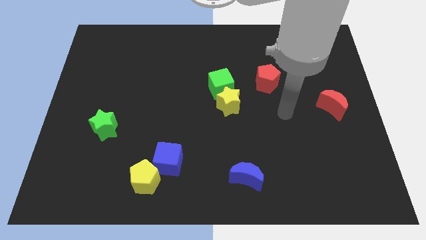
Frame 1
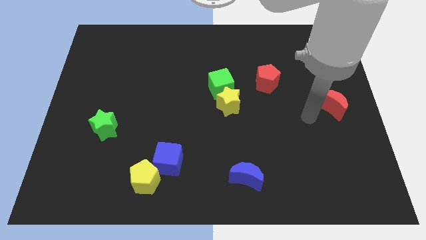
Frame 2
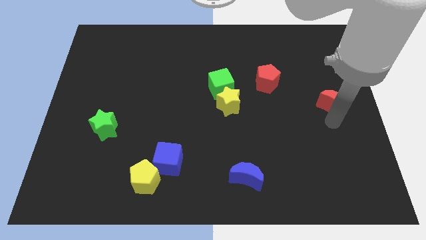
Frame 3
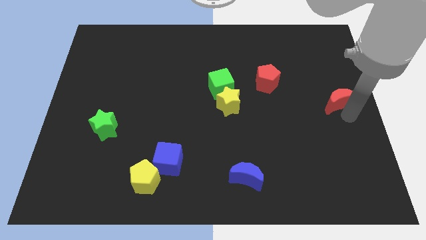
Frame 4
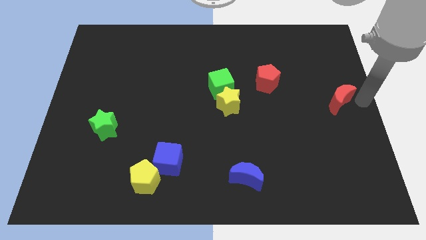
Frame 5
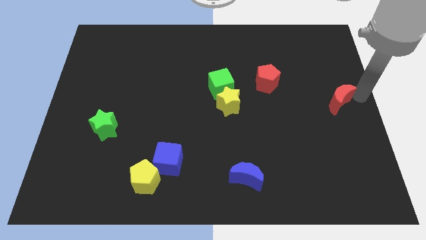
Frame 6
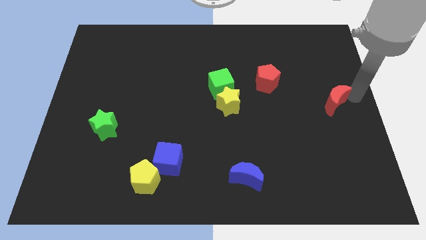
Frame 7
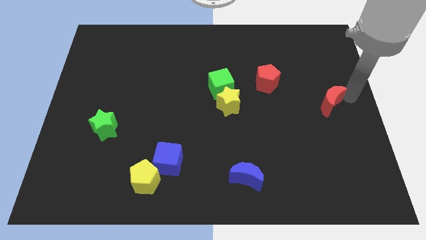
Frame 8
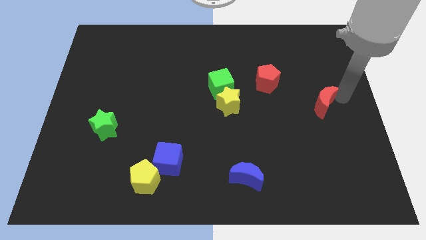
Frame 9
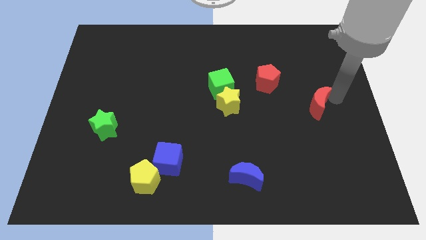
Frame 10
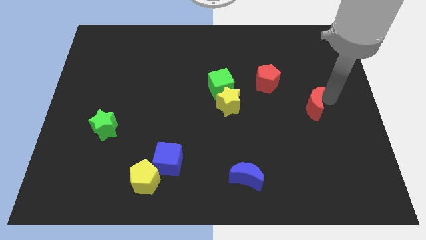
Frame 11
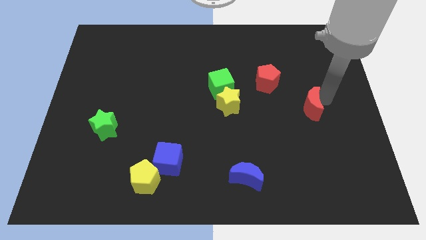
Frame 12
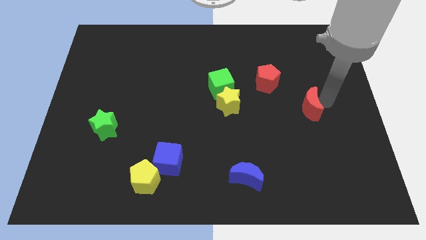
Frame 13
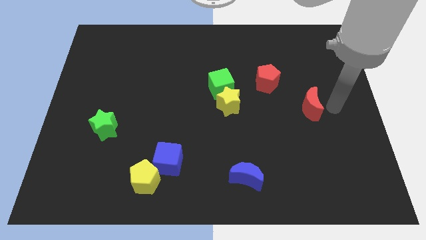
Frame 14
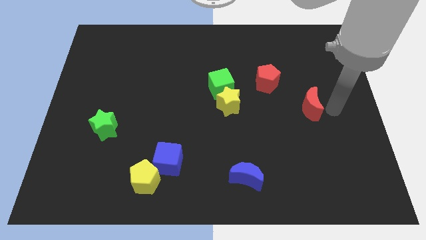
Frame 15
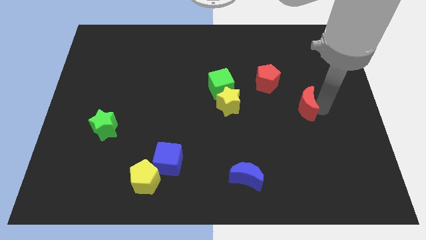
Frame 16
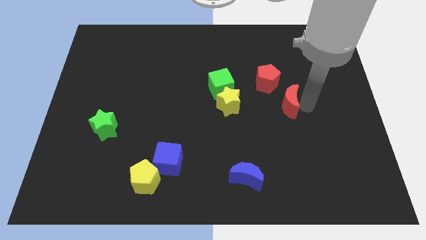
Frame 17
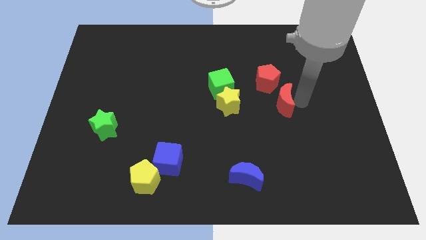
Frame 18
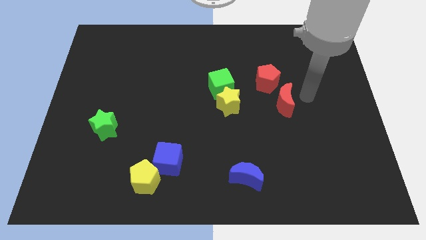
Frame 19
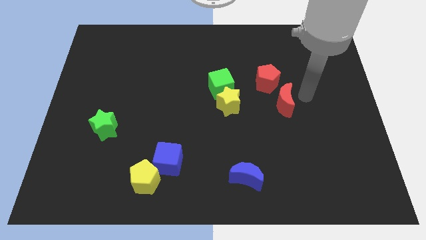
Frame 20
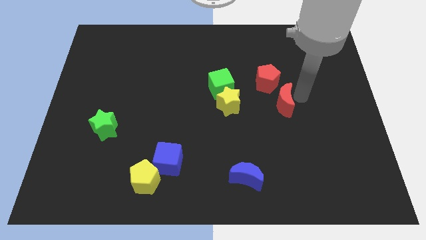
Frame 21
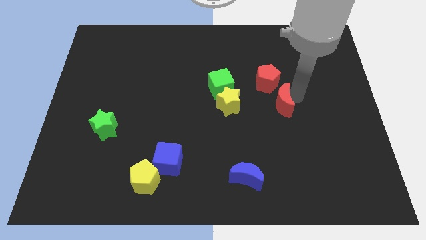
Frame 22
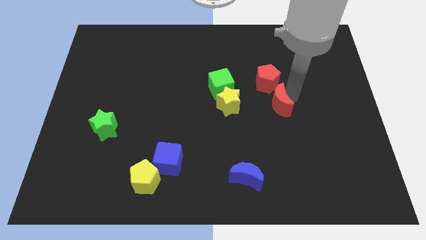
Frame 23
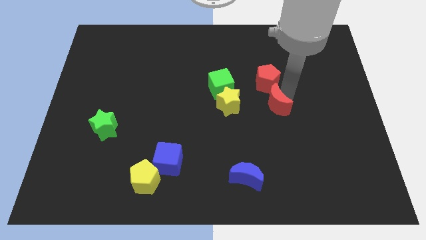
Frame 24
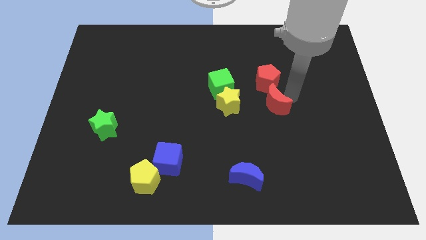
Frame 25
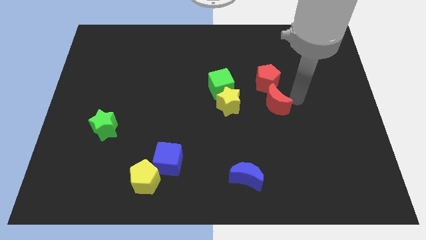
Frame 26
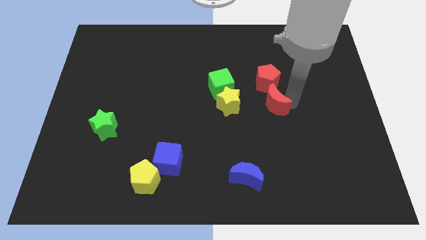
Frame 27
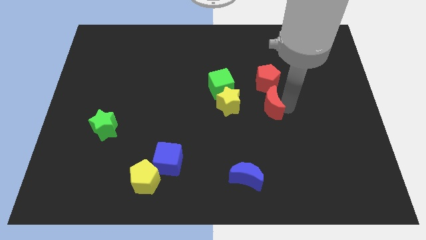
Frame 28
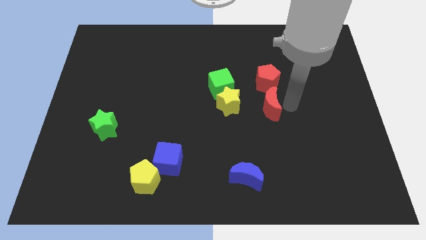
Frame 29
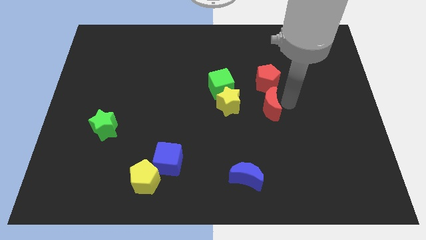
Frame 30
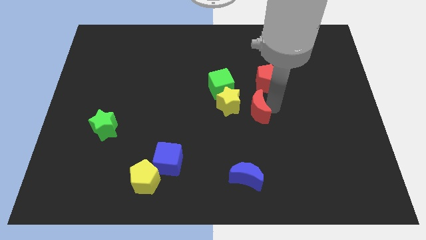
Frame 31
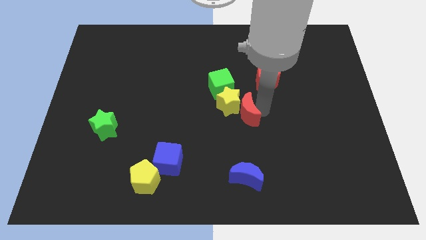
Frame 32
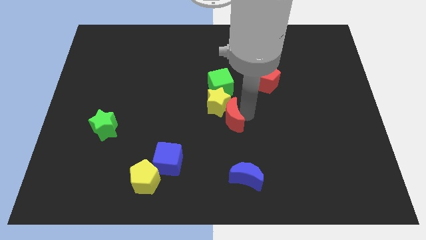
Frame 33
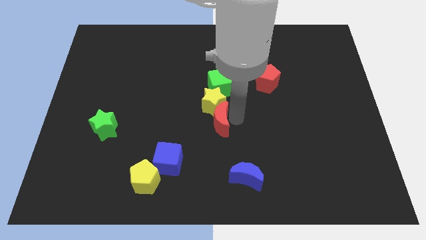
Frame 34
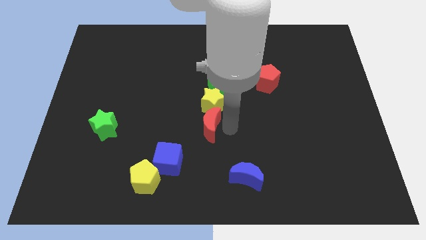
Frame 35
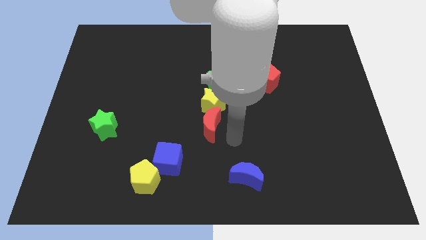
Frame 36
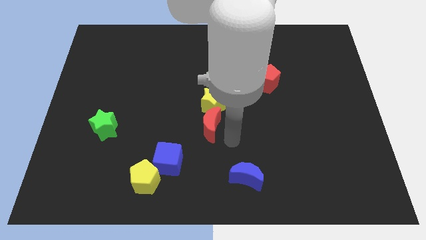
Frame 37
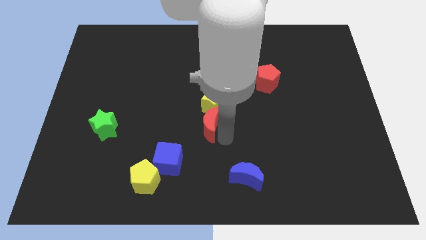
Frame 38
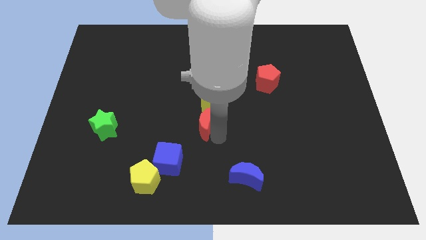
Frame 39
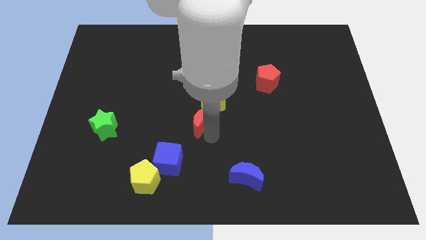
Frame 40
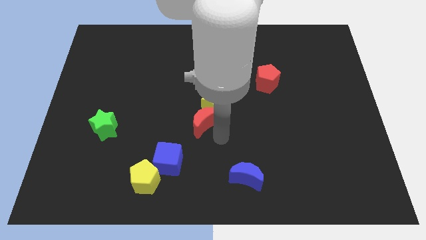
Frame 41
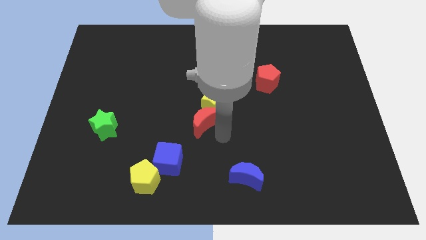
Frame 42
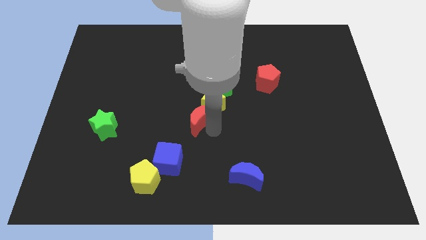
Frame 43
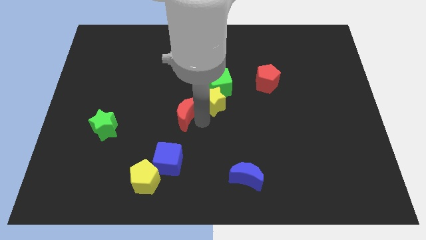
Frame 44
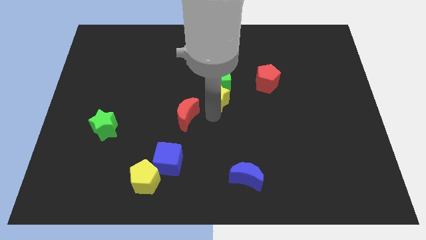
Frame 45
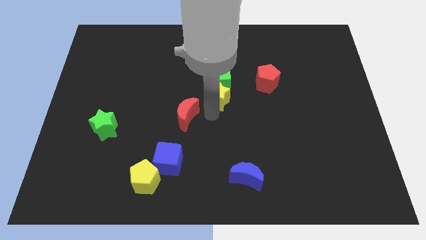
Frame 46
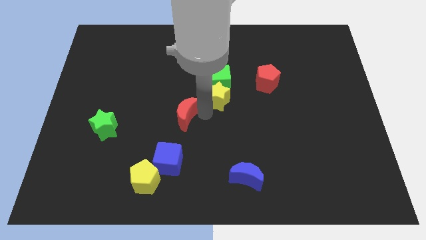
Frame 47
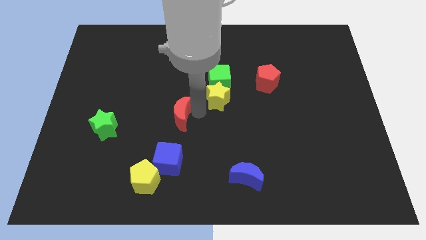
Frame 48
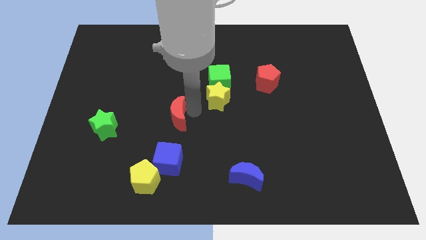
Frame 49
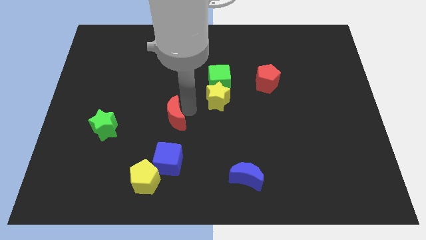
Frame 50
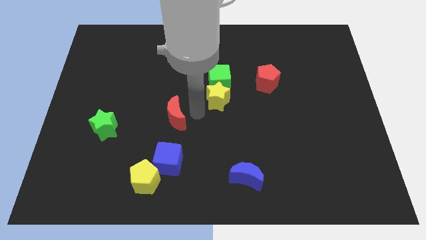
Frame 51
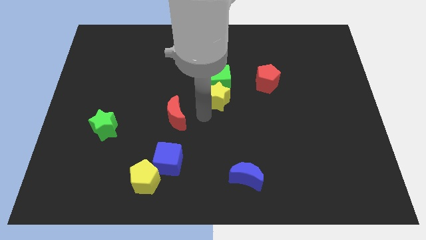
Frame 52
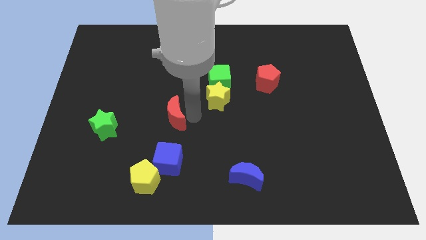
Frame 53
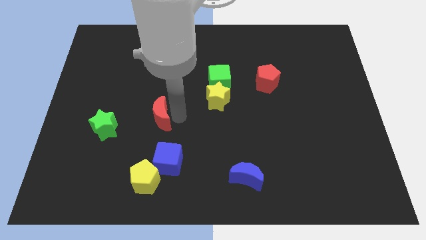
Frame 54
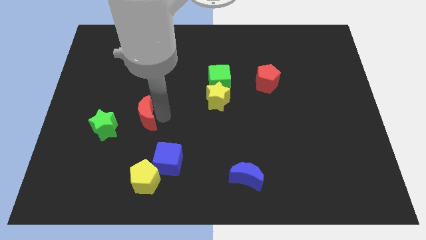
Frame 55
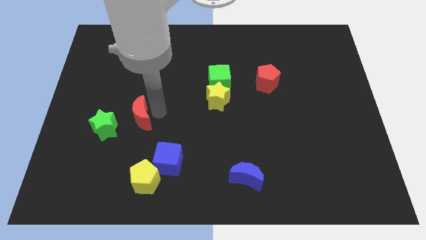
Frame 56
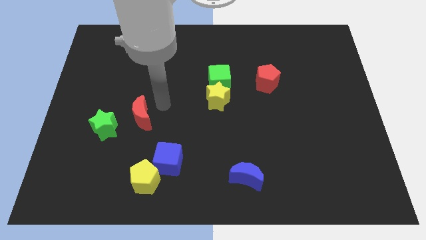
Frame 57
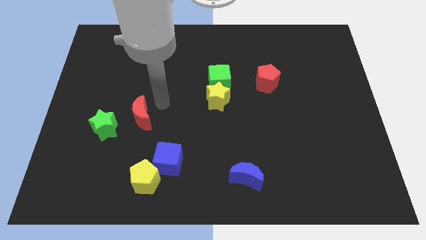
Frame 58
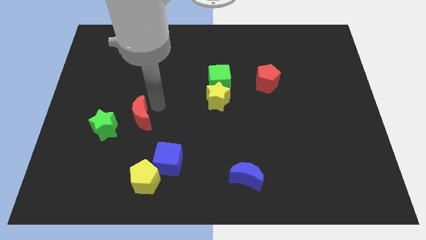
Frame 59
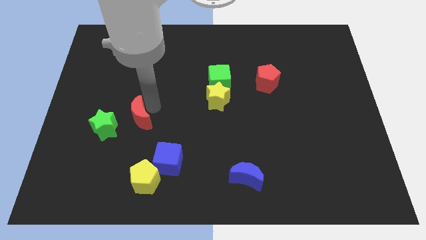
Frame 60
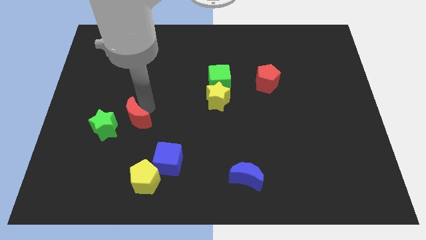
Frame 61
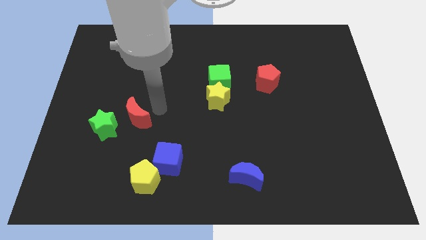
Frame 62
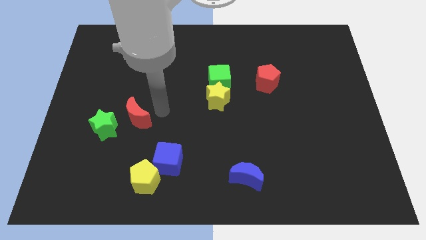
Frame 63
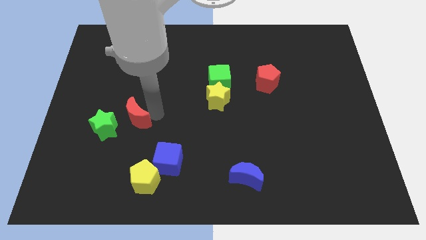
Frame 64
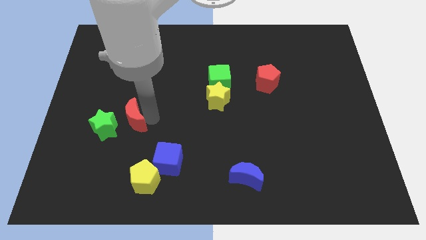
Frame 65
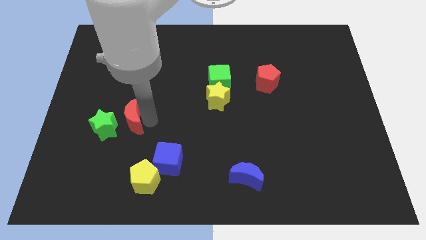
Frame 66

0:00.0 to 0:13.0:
slide the red moon next to the green star

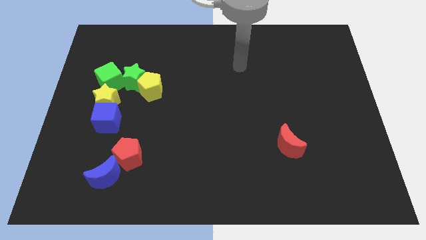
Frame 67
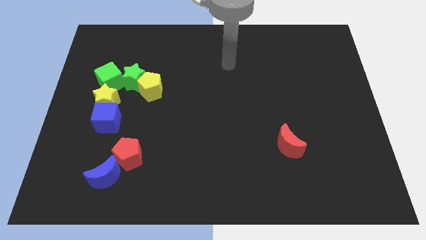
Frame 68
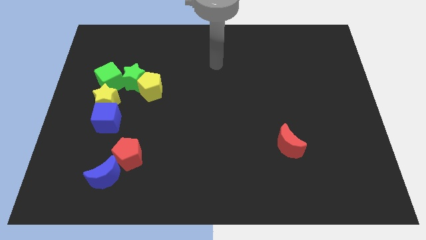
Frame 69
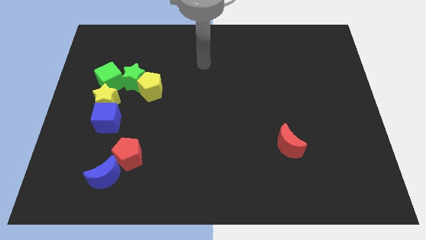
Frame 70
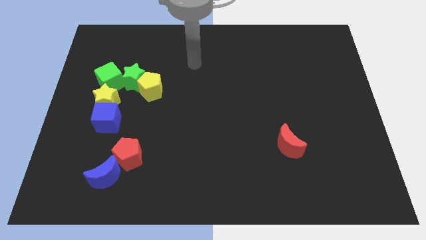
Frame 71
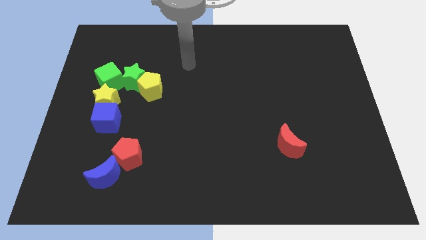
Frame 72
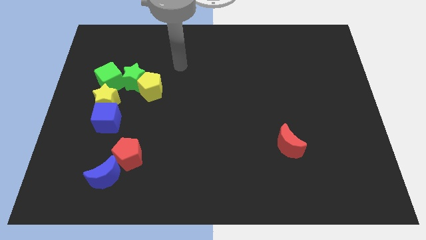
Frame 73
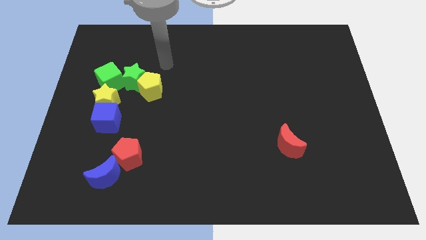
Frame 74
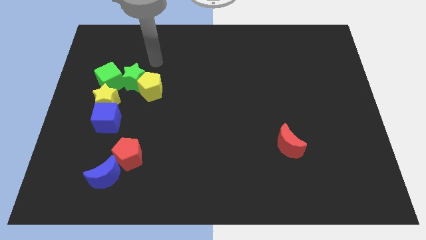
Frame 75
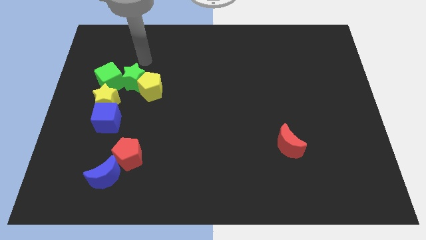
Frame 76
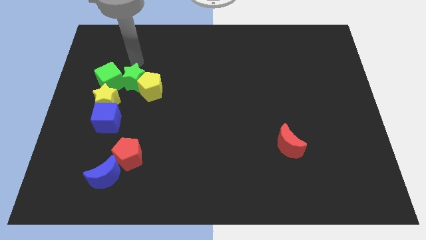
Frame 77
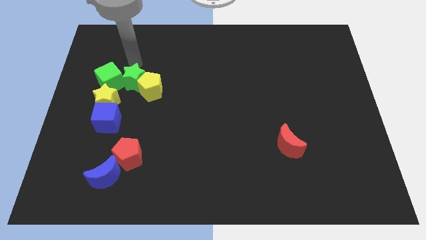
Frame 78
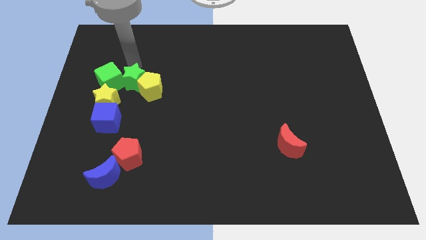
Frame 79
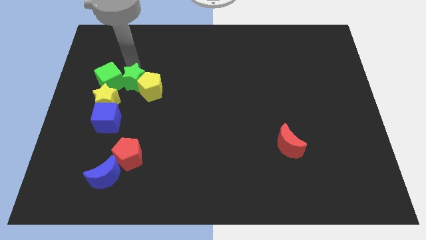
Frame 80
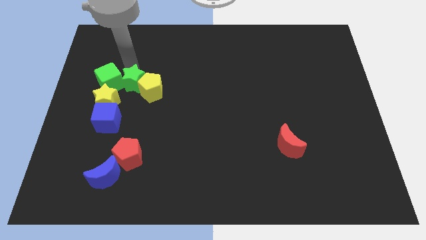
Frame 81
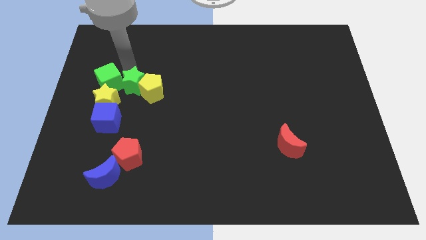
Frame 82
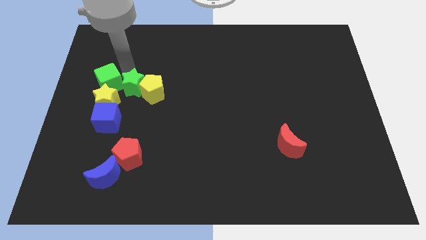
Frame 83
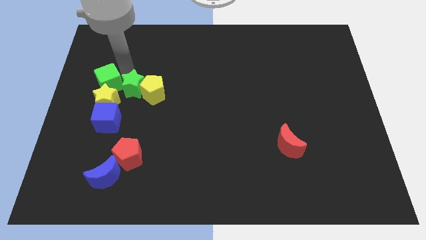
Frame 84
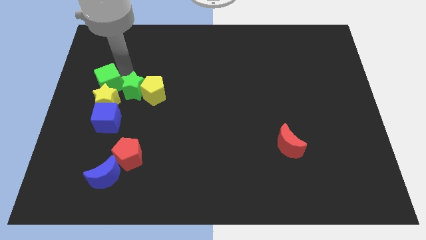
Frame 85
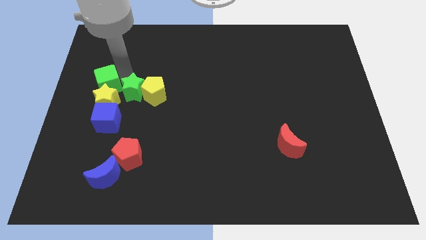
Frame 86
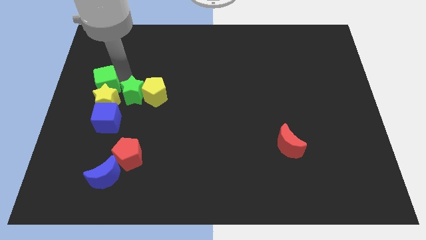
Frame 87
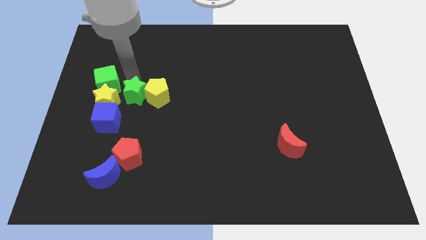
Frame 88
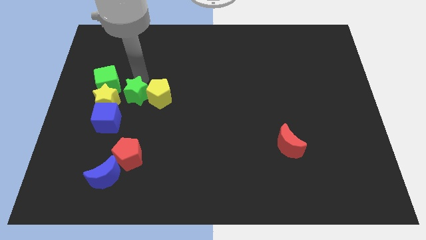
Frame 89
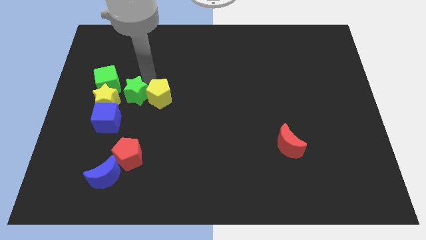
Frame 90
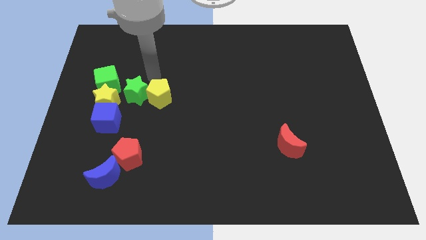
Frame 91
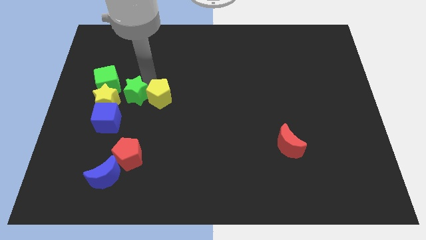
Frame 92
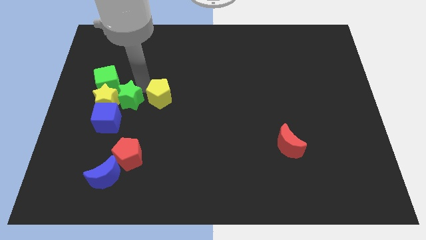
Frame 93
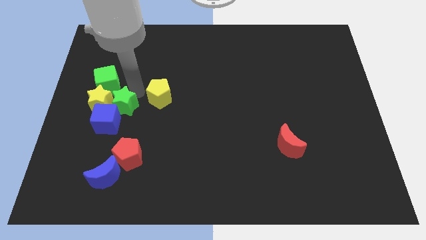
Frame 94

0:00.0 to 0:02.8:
put the green star towards the blue cube
